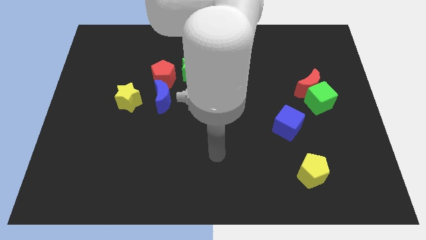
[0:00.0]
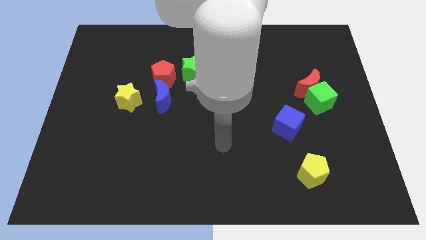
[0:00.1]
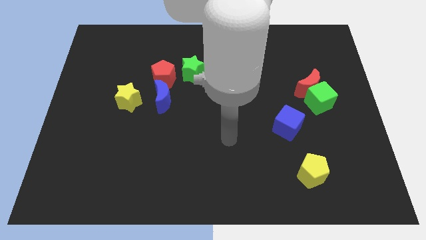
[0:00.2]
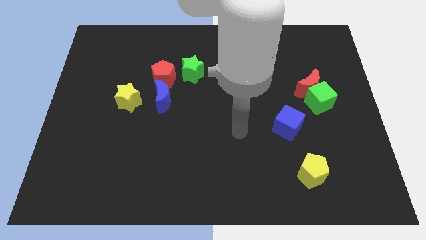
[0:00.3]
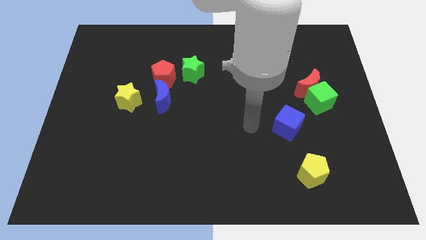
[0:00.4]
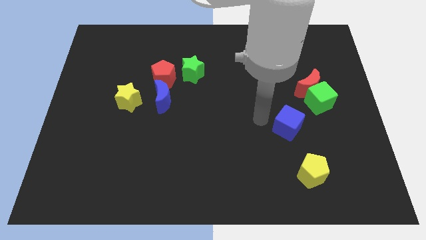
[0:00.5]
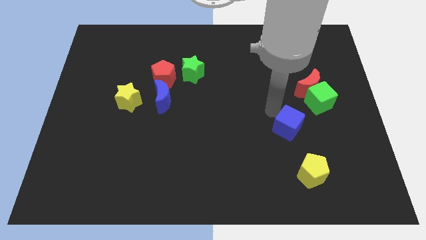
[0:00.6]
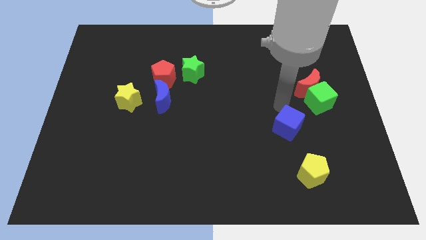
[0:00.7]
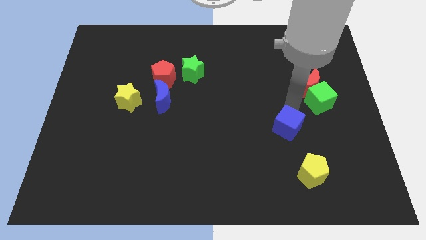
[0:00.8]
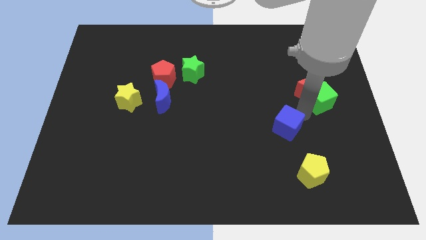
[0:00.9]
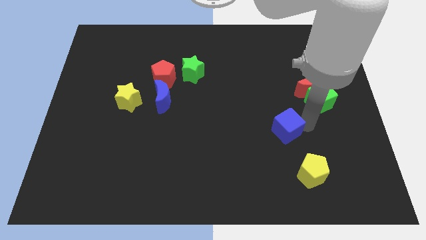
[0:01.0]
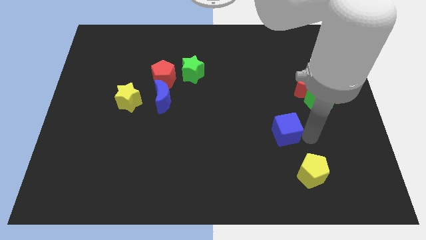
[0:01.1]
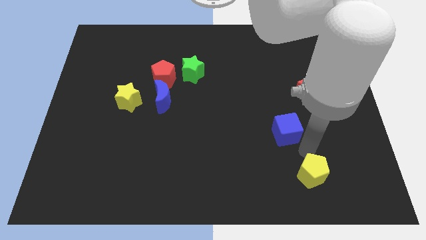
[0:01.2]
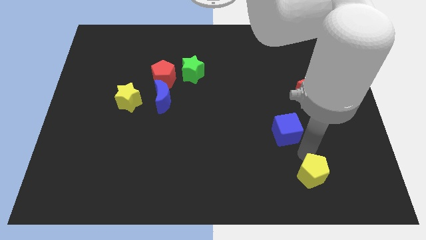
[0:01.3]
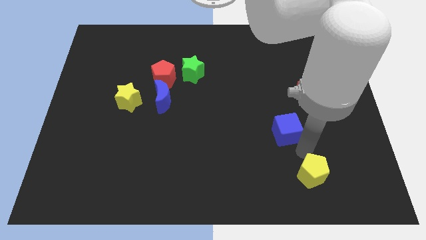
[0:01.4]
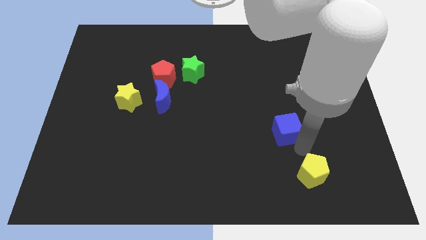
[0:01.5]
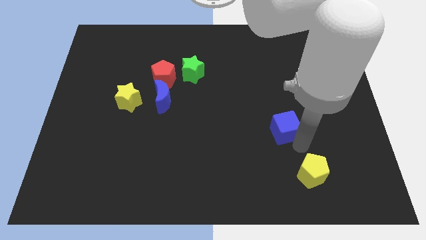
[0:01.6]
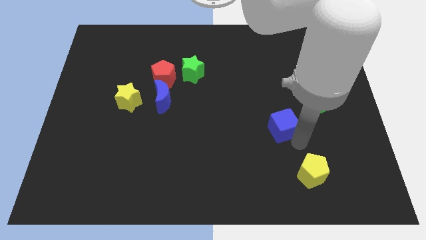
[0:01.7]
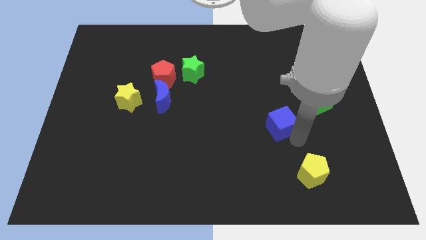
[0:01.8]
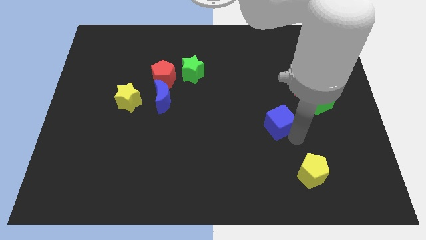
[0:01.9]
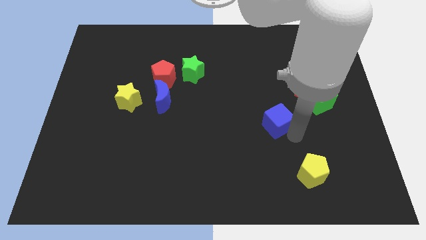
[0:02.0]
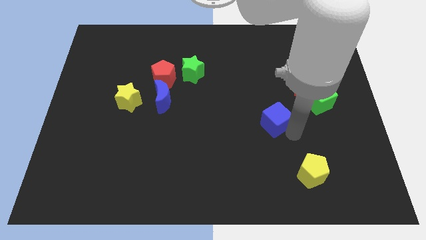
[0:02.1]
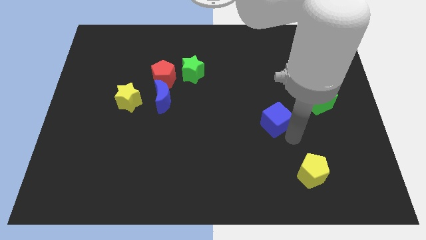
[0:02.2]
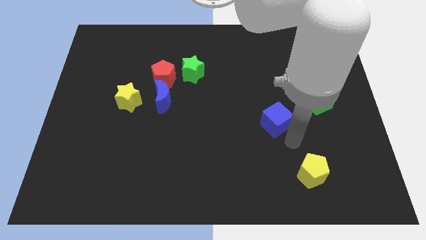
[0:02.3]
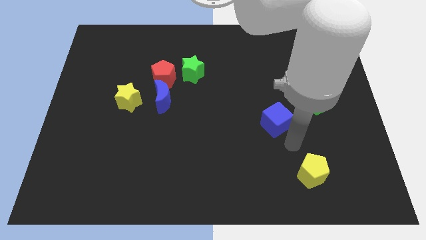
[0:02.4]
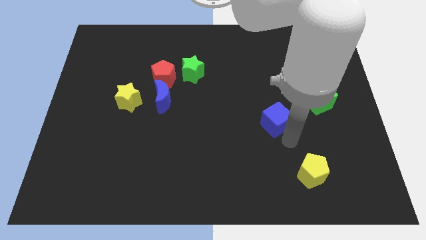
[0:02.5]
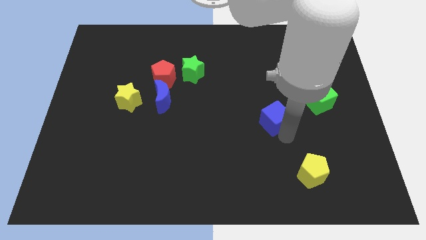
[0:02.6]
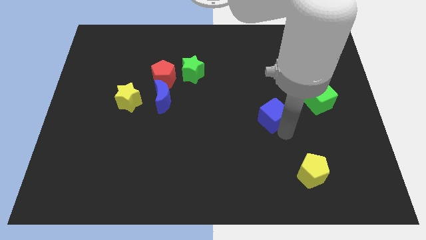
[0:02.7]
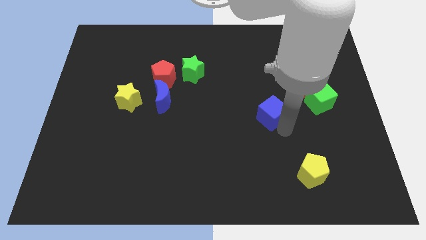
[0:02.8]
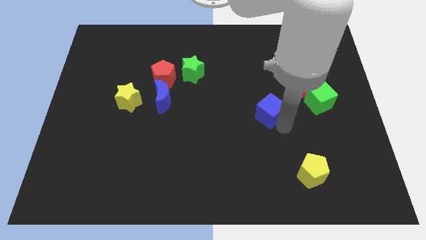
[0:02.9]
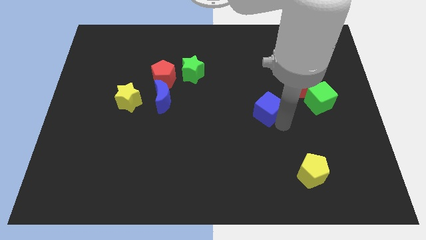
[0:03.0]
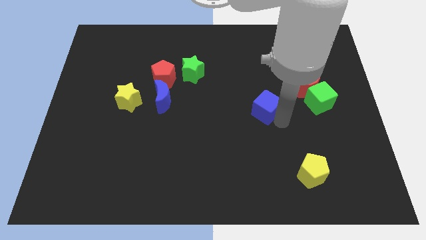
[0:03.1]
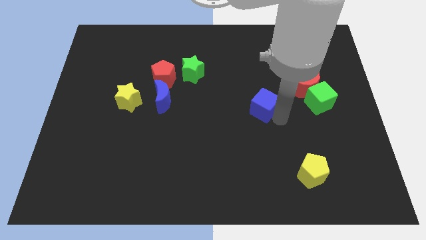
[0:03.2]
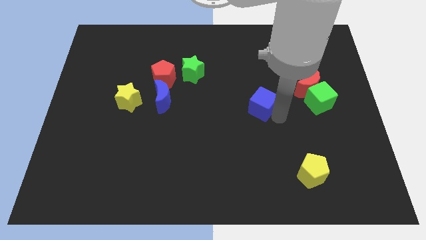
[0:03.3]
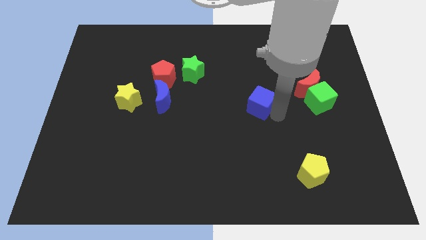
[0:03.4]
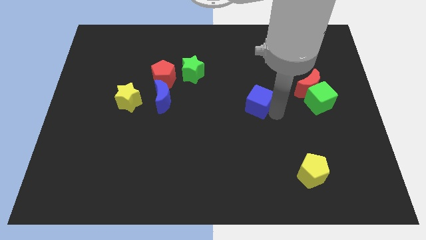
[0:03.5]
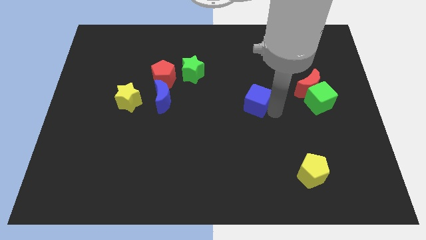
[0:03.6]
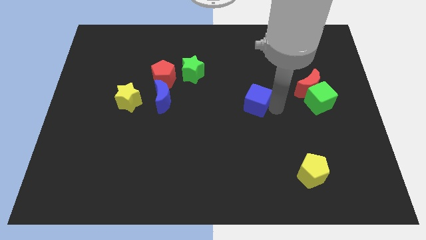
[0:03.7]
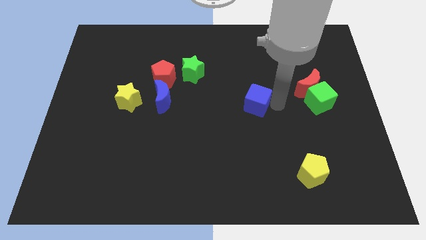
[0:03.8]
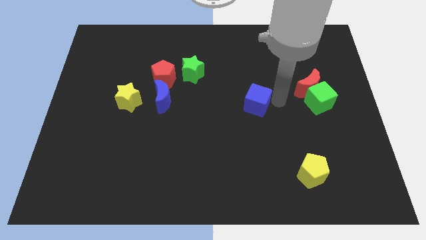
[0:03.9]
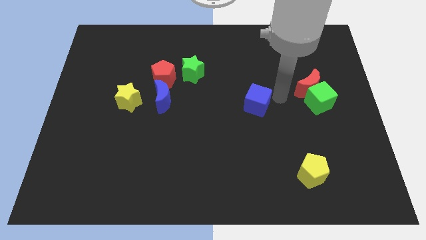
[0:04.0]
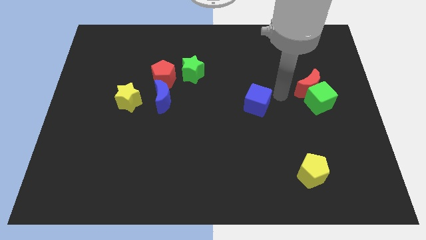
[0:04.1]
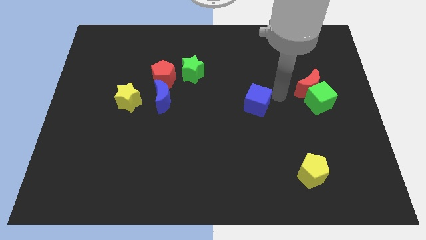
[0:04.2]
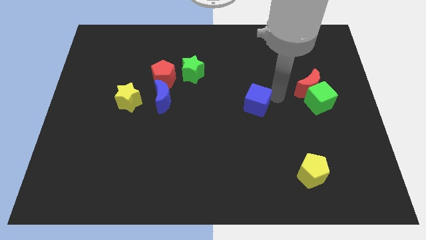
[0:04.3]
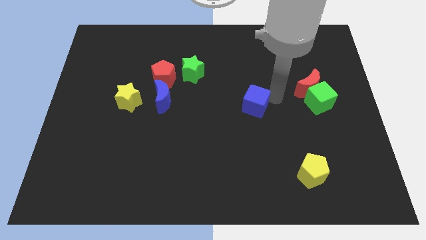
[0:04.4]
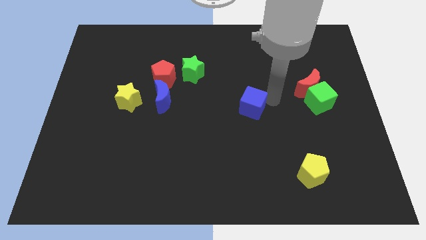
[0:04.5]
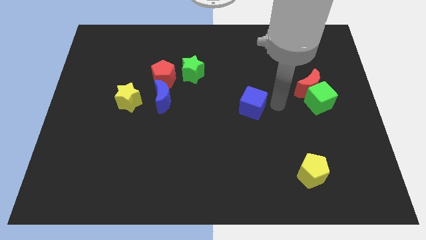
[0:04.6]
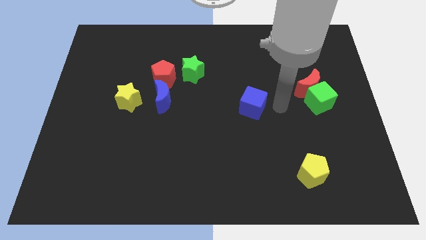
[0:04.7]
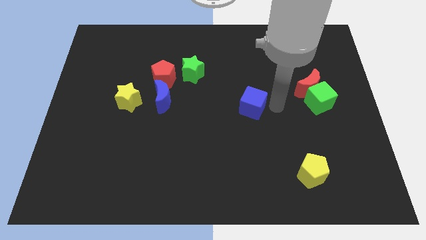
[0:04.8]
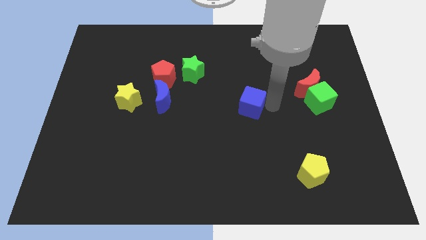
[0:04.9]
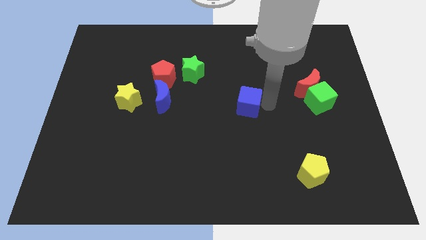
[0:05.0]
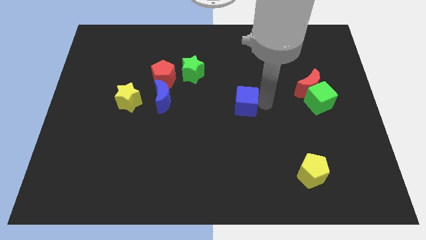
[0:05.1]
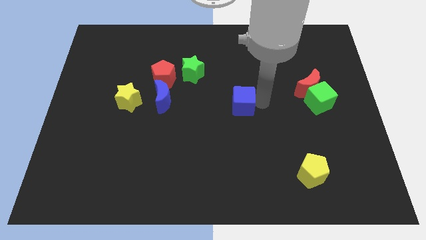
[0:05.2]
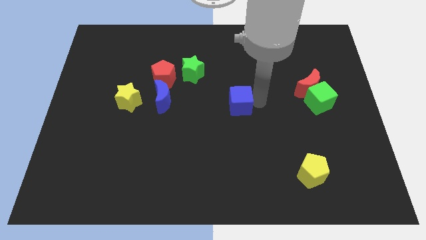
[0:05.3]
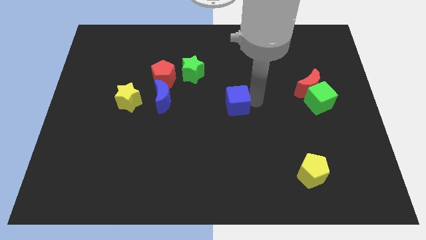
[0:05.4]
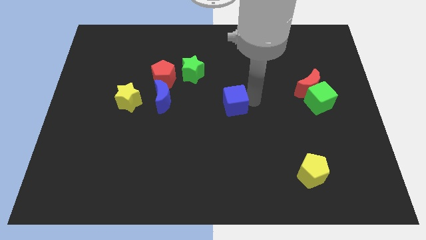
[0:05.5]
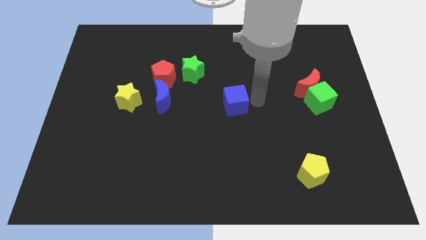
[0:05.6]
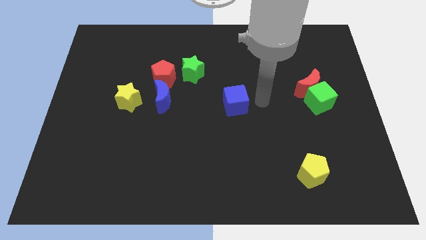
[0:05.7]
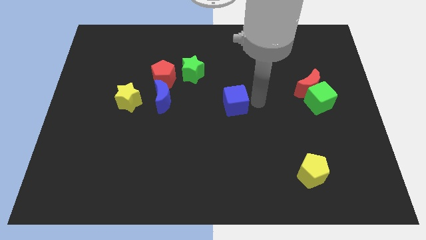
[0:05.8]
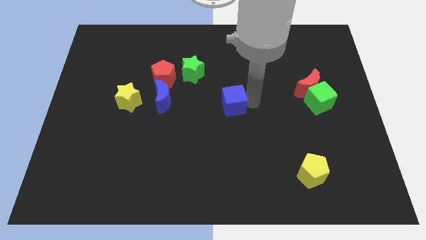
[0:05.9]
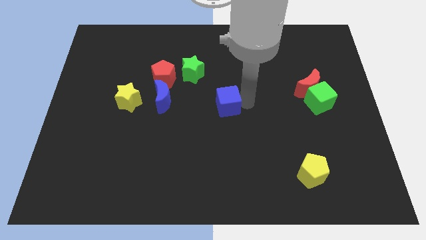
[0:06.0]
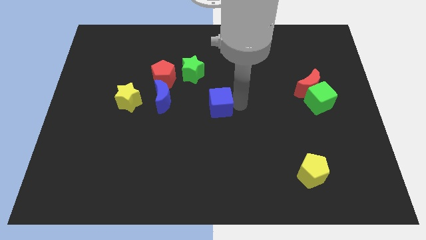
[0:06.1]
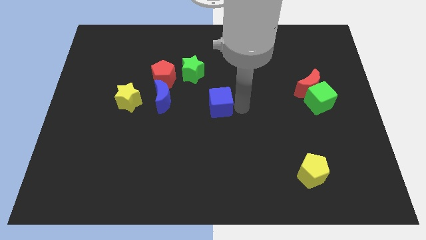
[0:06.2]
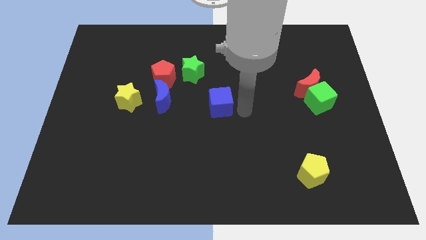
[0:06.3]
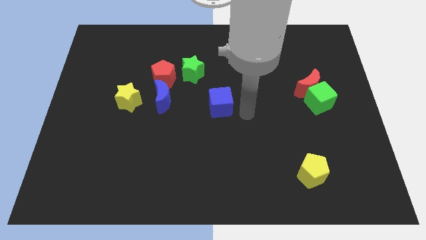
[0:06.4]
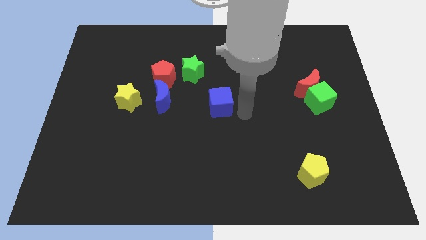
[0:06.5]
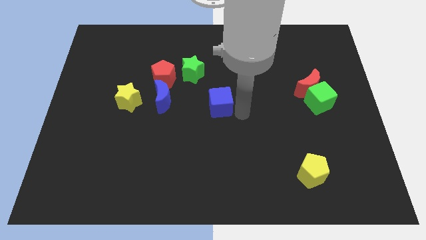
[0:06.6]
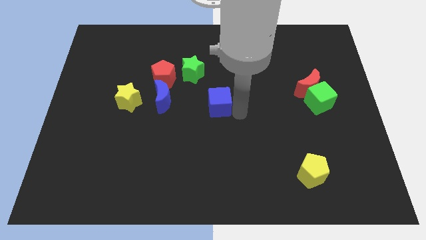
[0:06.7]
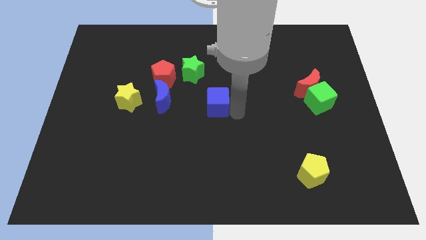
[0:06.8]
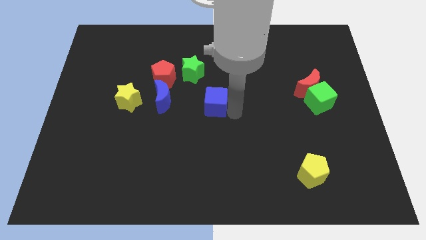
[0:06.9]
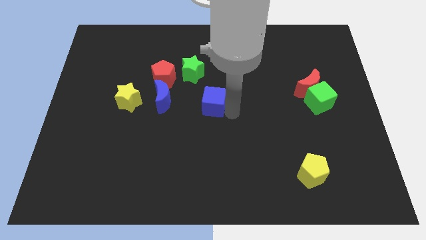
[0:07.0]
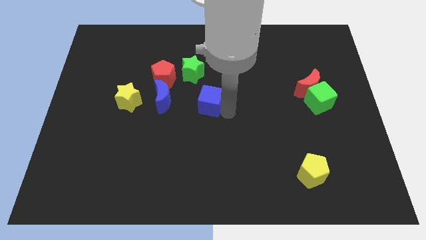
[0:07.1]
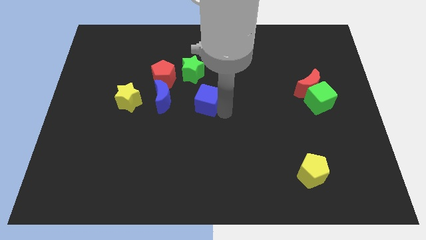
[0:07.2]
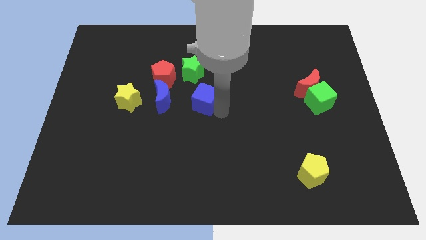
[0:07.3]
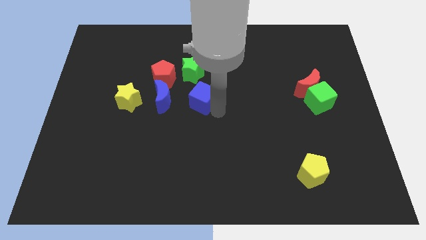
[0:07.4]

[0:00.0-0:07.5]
move the blue cube diagonally down and to the right of the red pentagon
